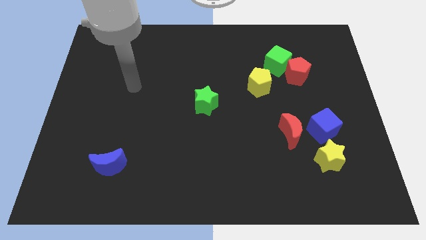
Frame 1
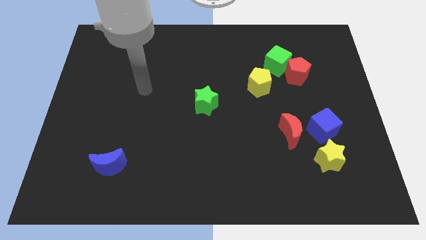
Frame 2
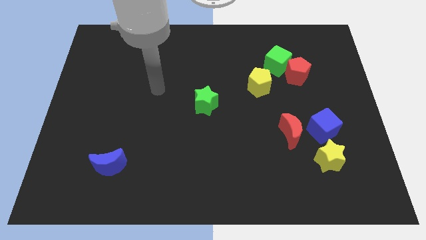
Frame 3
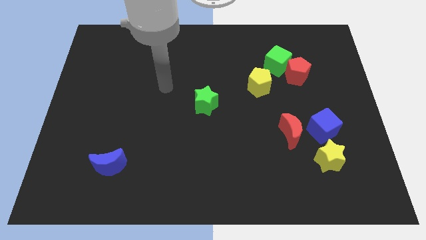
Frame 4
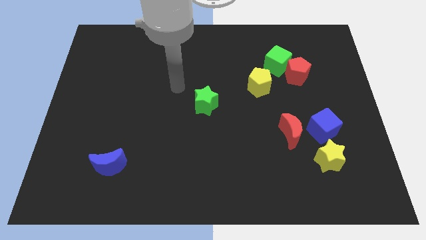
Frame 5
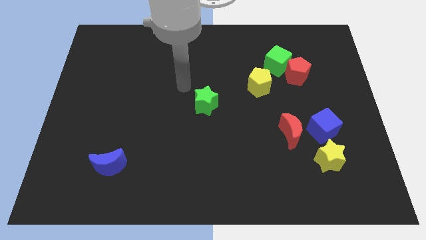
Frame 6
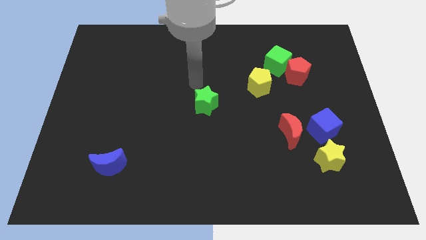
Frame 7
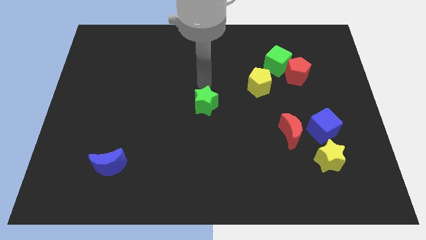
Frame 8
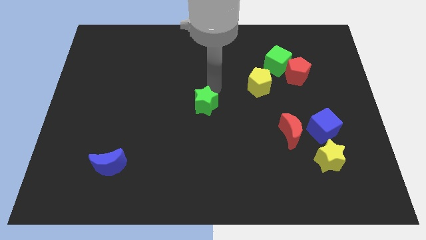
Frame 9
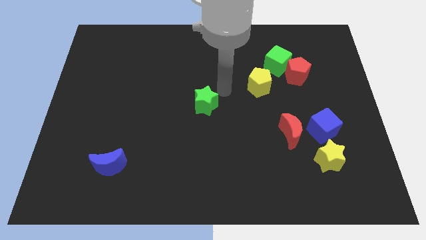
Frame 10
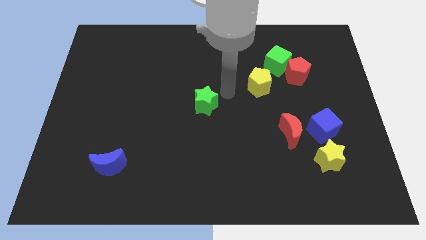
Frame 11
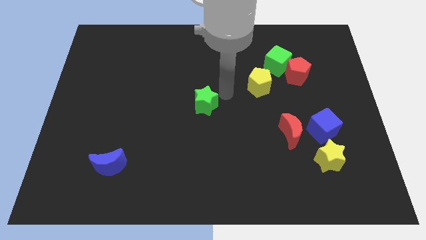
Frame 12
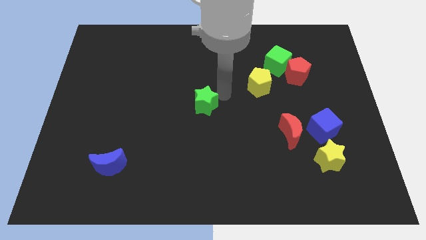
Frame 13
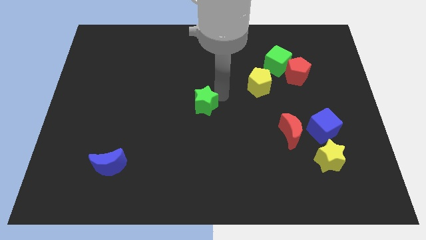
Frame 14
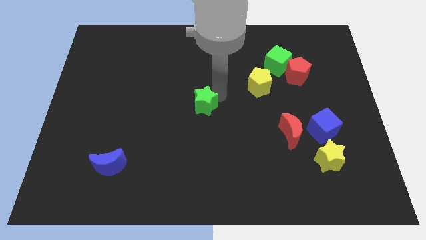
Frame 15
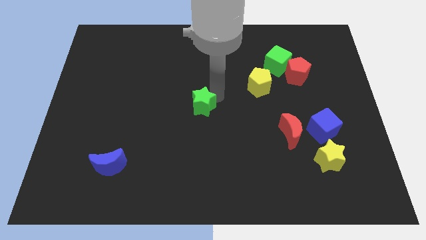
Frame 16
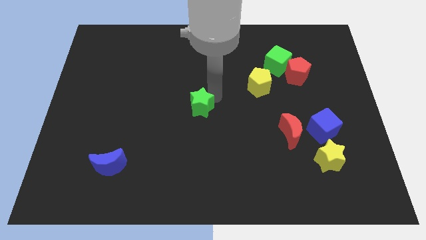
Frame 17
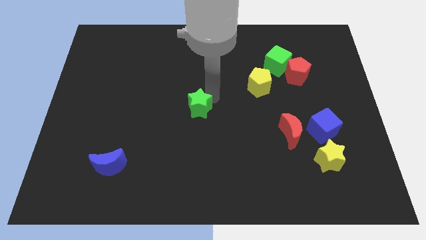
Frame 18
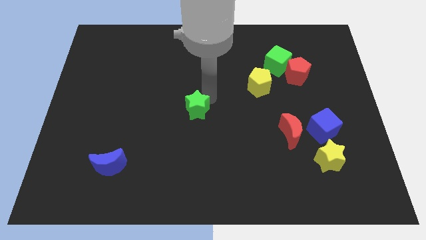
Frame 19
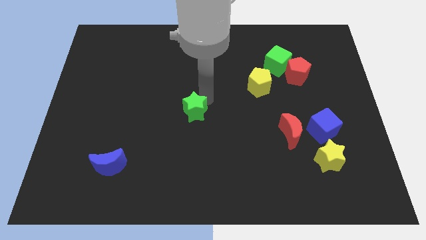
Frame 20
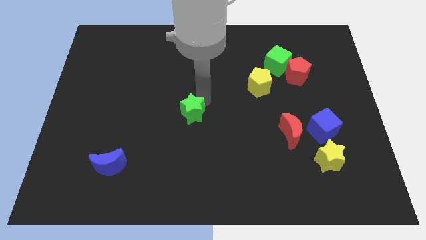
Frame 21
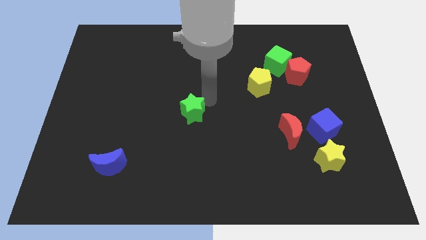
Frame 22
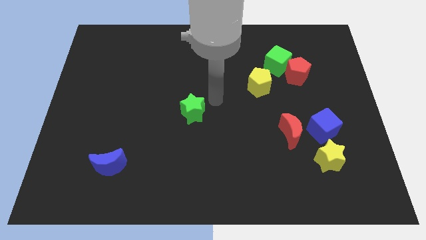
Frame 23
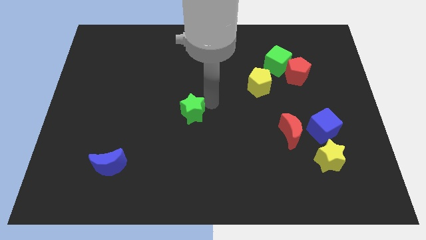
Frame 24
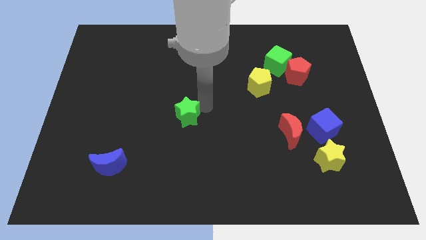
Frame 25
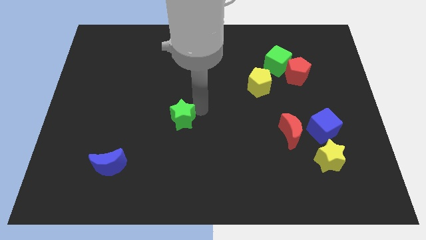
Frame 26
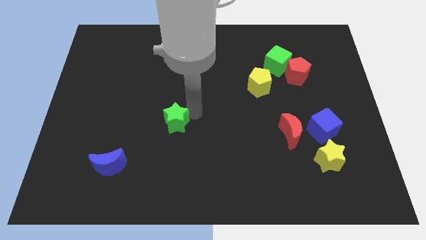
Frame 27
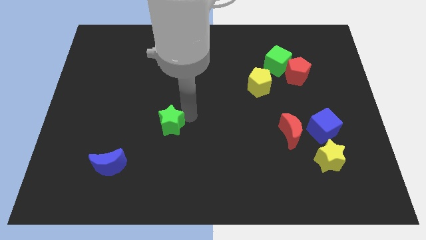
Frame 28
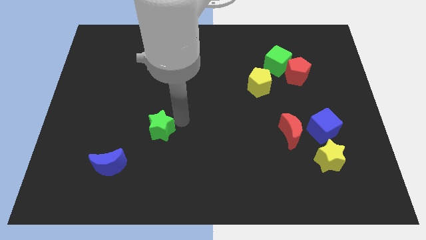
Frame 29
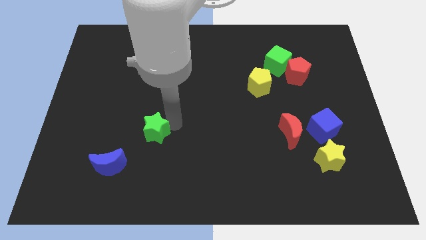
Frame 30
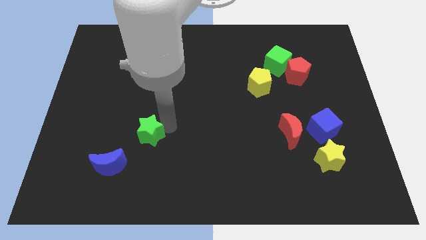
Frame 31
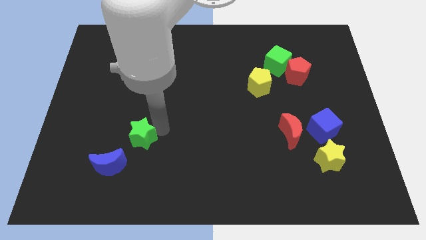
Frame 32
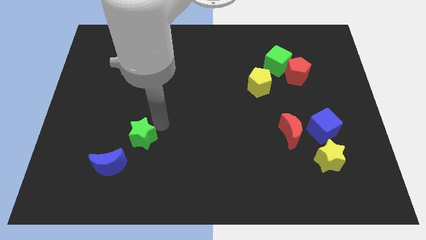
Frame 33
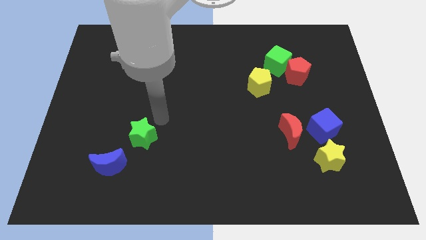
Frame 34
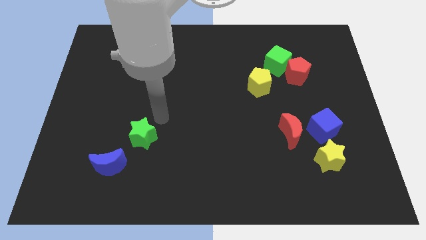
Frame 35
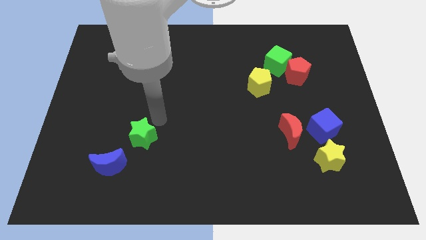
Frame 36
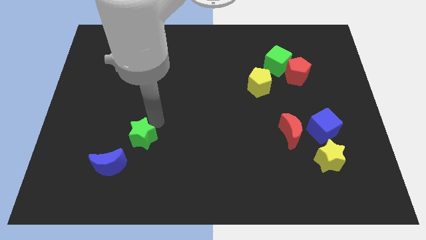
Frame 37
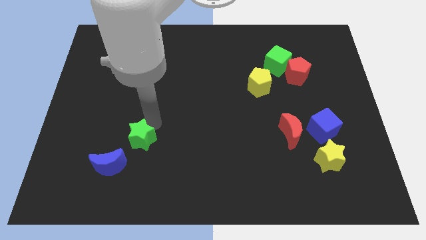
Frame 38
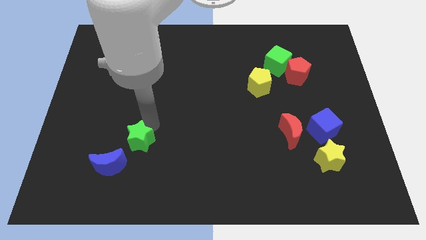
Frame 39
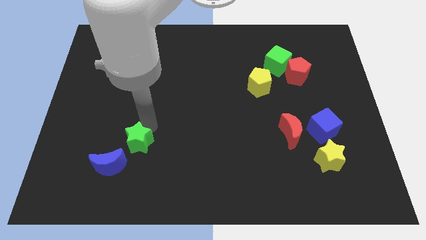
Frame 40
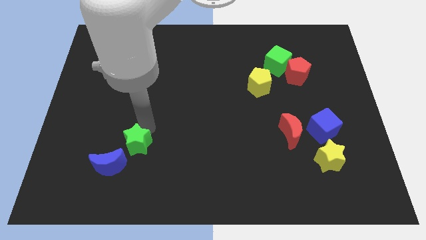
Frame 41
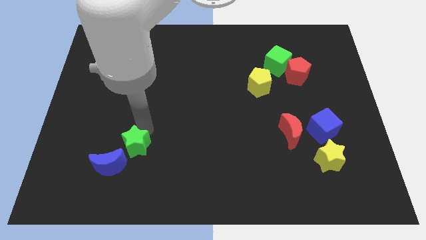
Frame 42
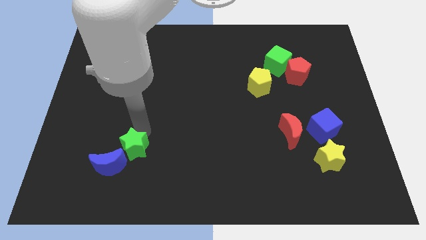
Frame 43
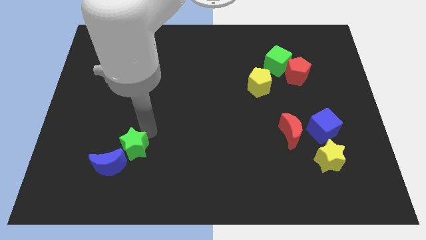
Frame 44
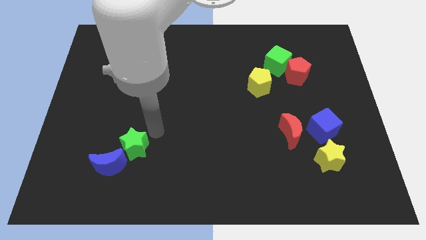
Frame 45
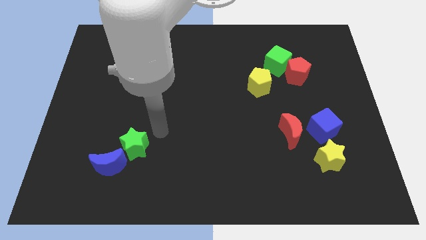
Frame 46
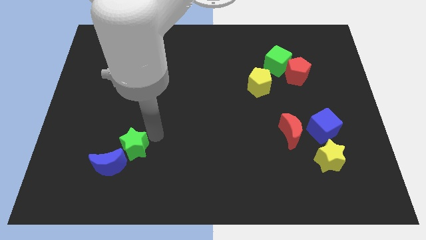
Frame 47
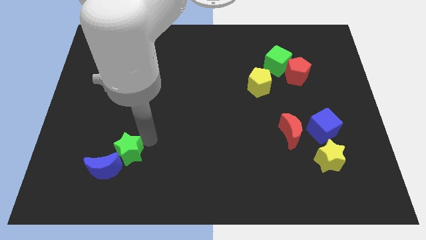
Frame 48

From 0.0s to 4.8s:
slide the green star towards the blue moon

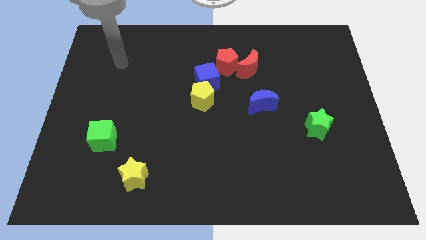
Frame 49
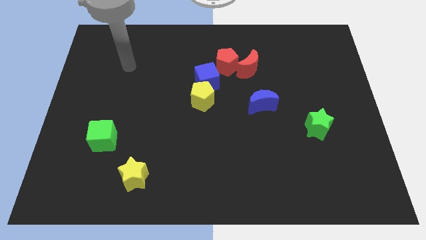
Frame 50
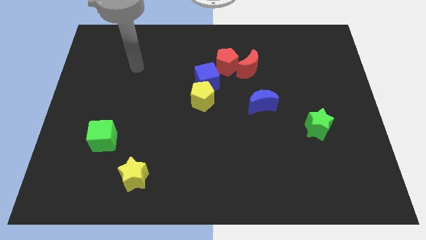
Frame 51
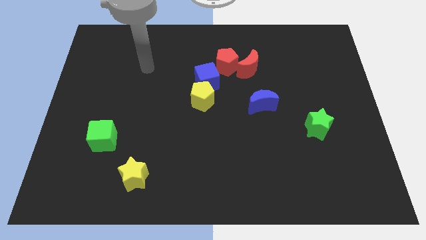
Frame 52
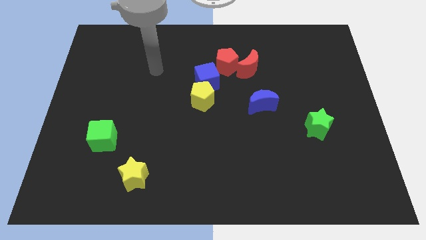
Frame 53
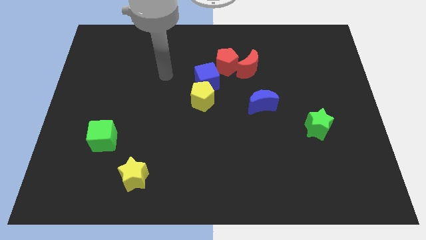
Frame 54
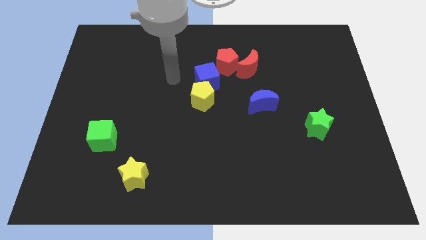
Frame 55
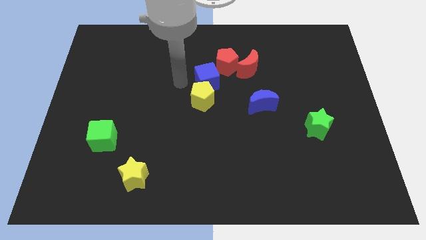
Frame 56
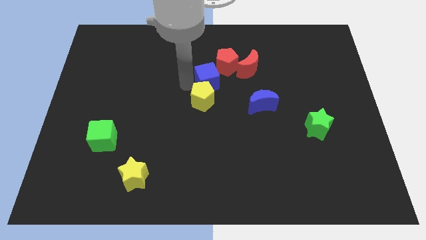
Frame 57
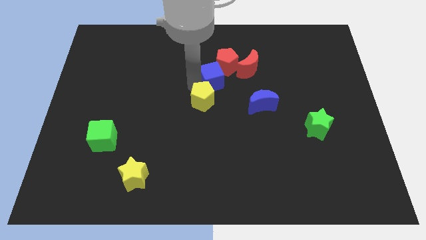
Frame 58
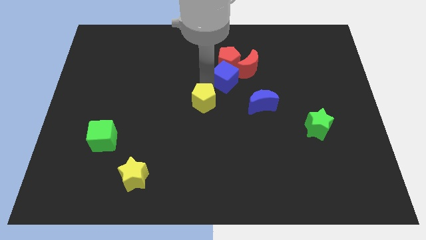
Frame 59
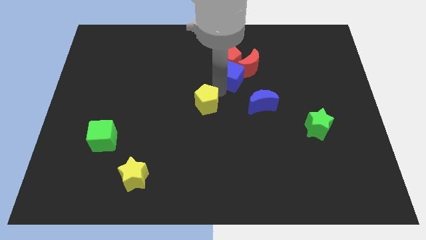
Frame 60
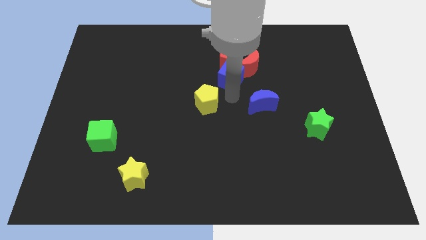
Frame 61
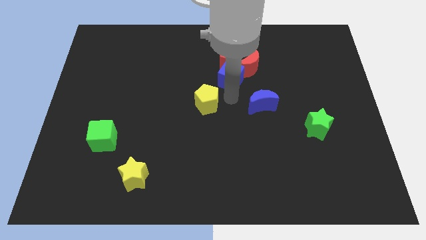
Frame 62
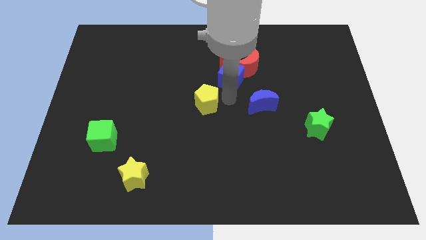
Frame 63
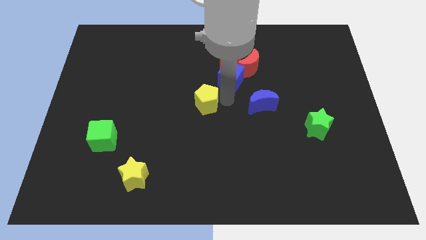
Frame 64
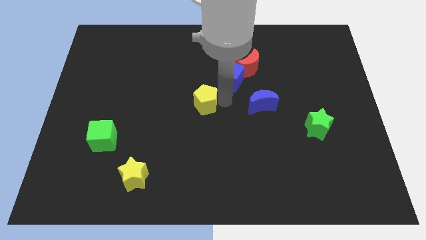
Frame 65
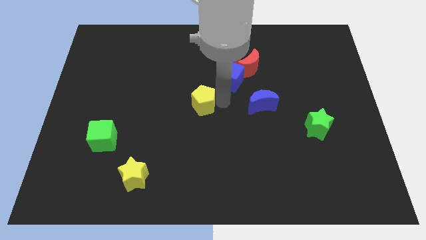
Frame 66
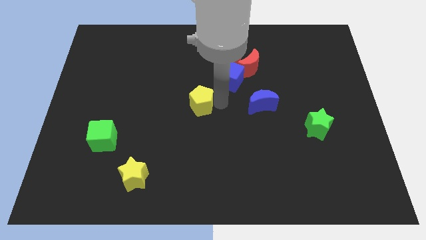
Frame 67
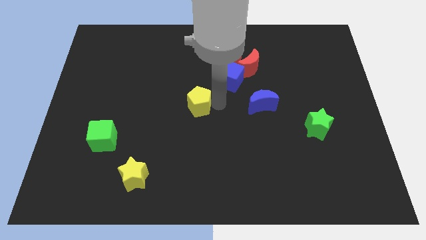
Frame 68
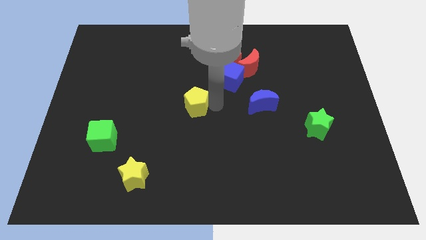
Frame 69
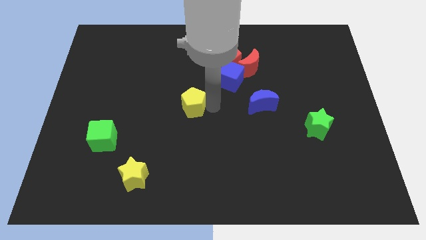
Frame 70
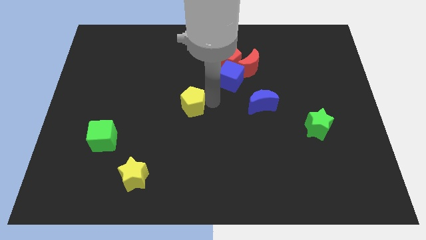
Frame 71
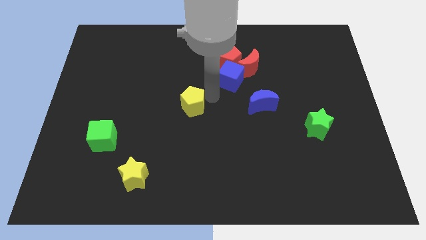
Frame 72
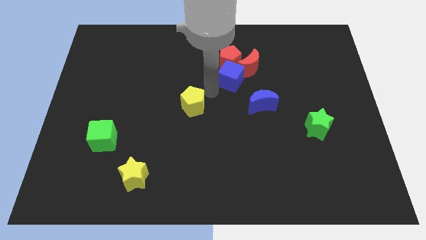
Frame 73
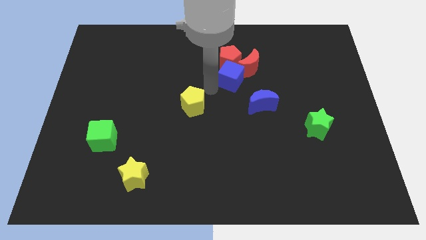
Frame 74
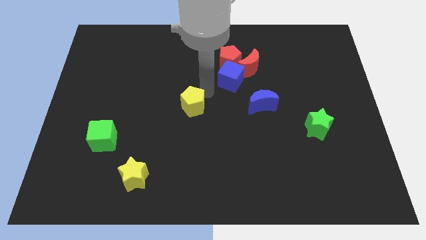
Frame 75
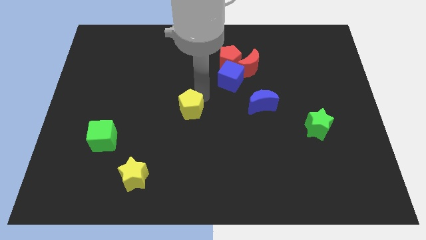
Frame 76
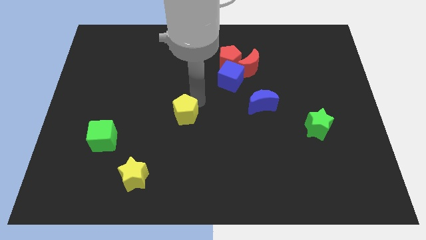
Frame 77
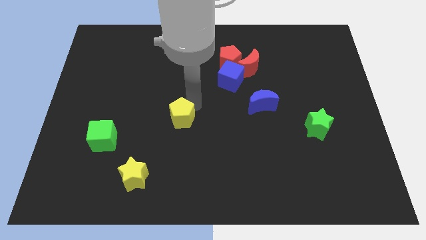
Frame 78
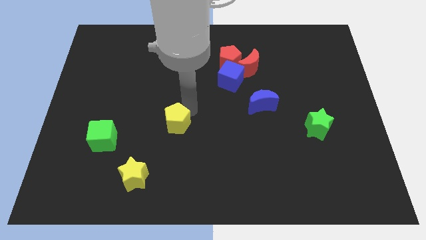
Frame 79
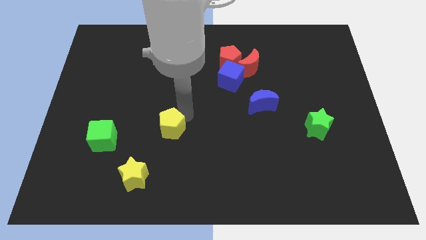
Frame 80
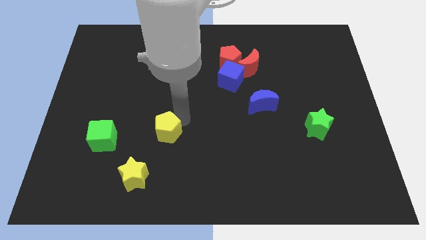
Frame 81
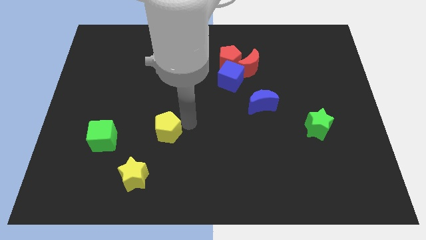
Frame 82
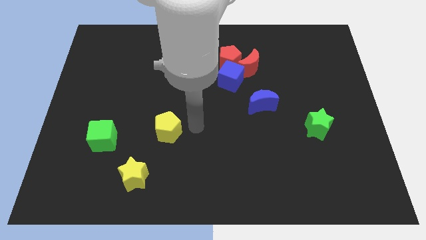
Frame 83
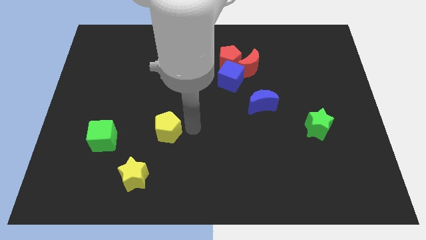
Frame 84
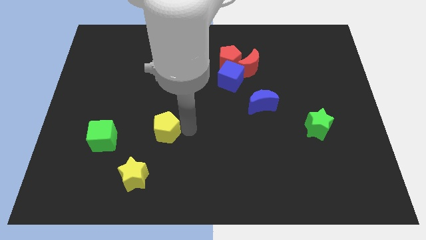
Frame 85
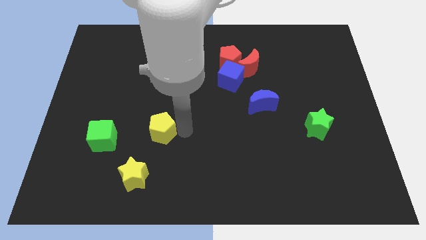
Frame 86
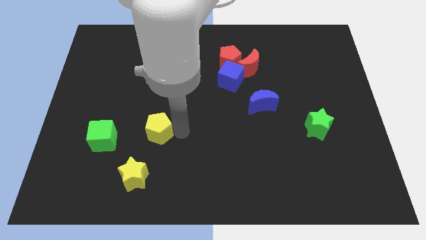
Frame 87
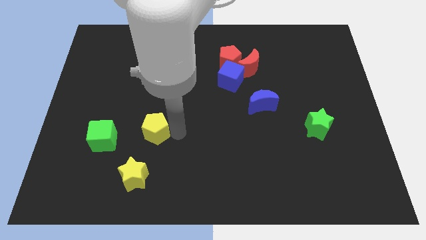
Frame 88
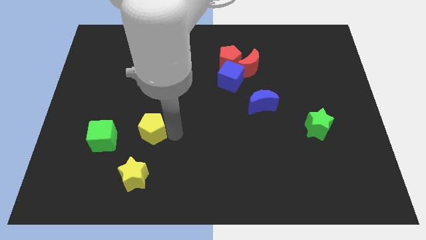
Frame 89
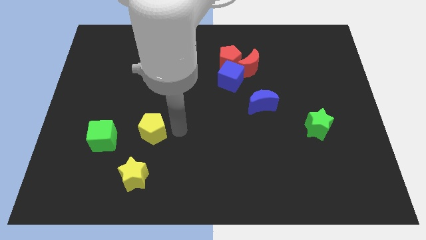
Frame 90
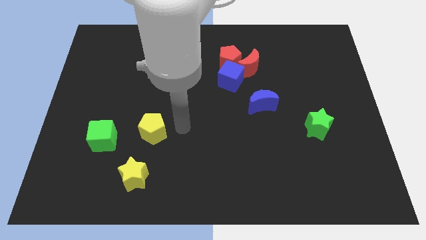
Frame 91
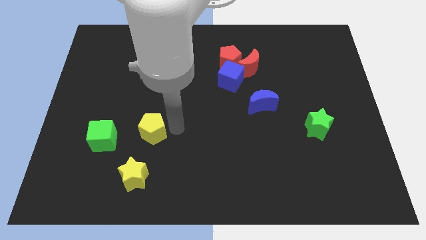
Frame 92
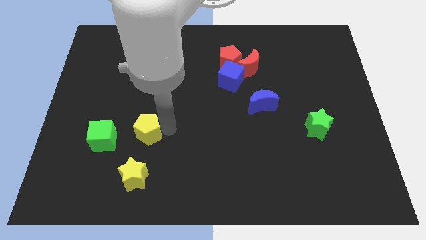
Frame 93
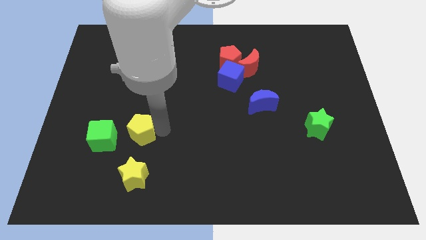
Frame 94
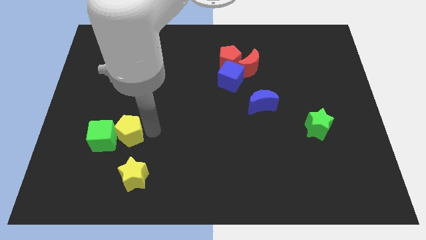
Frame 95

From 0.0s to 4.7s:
push the yellow pentagon close to the green cube
